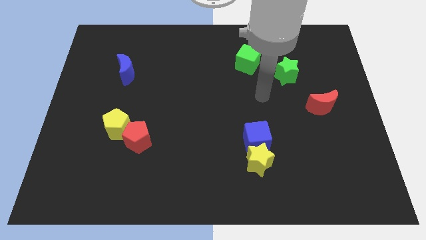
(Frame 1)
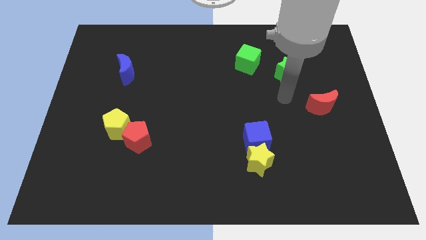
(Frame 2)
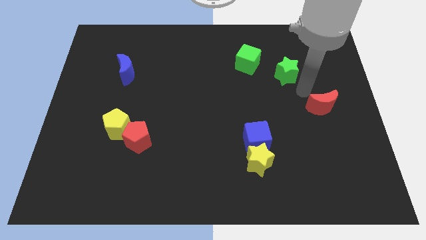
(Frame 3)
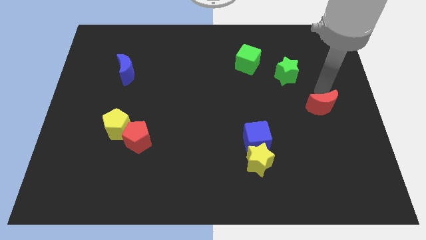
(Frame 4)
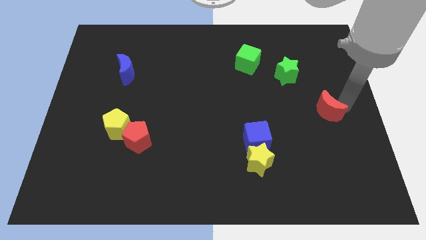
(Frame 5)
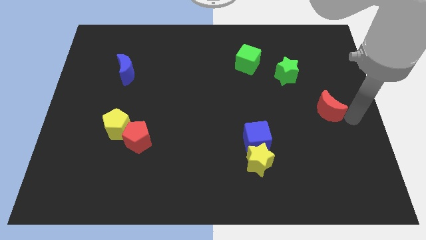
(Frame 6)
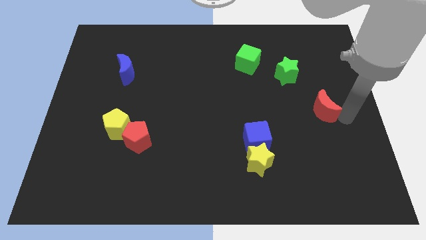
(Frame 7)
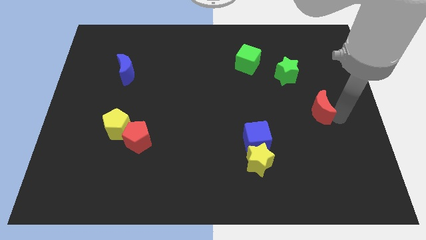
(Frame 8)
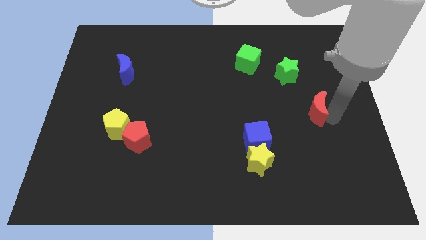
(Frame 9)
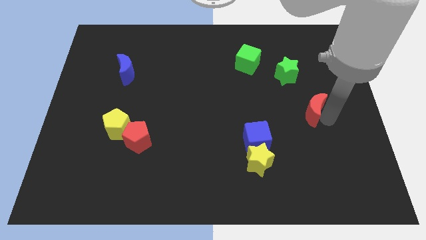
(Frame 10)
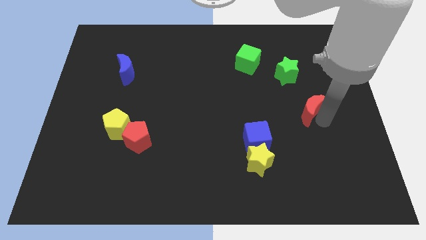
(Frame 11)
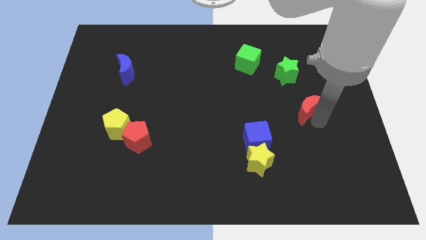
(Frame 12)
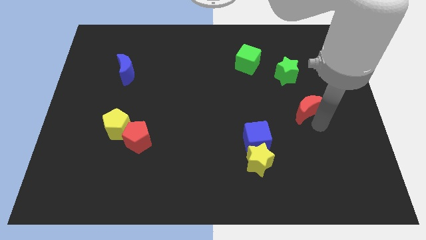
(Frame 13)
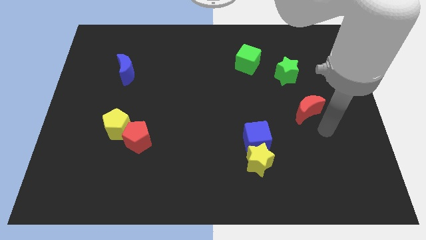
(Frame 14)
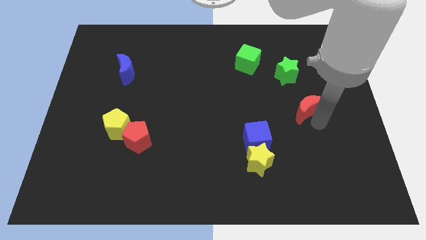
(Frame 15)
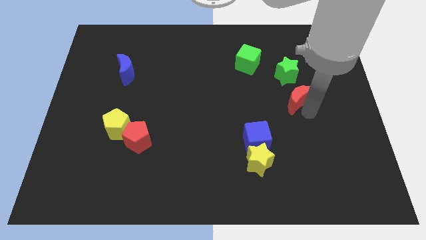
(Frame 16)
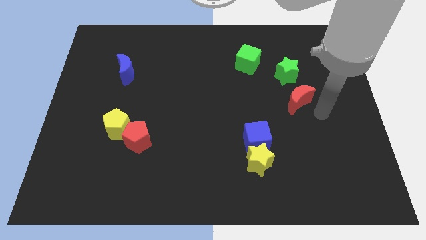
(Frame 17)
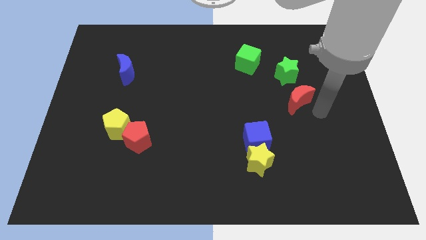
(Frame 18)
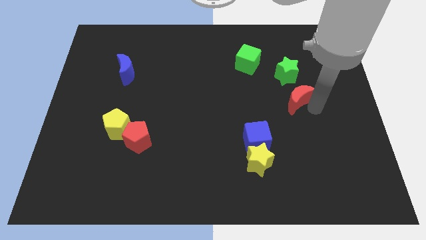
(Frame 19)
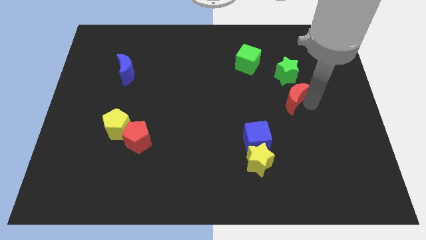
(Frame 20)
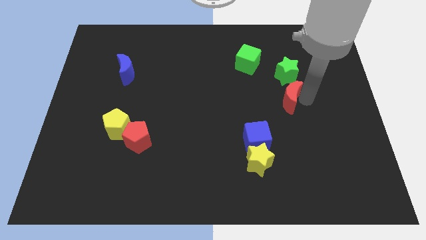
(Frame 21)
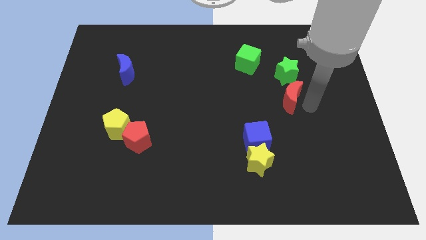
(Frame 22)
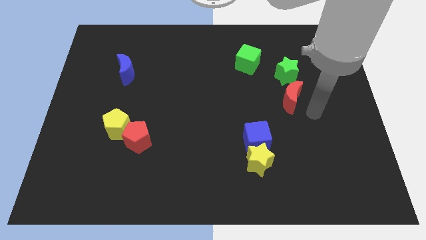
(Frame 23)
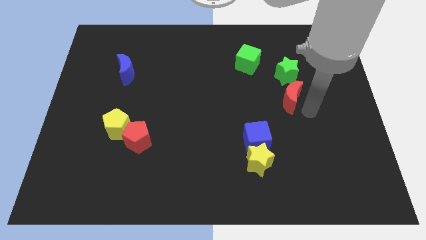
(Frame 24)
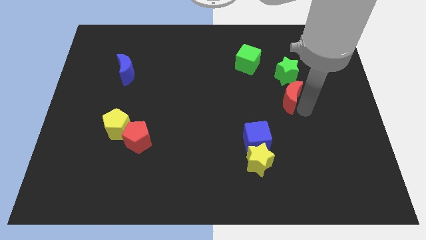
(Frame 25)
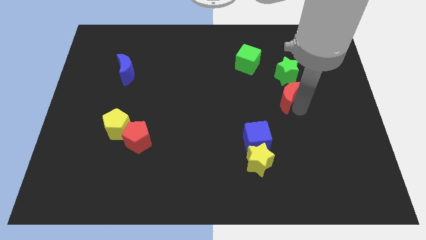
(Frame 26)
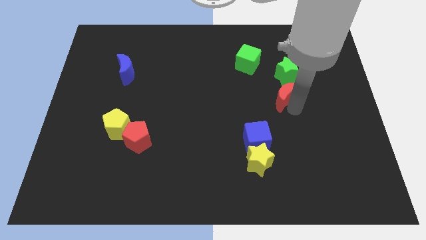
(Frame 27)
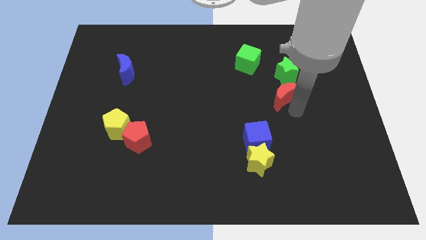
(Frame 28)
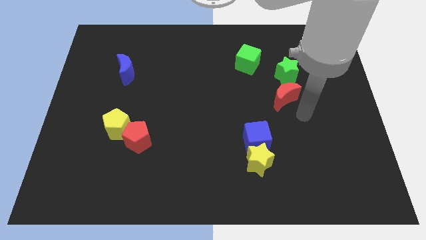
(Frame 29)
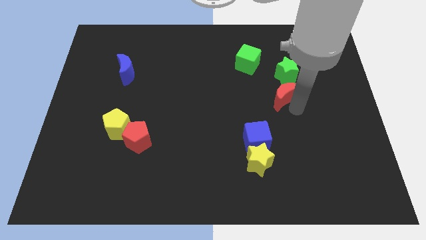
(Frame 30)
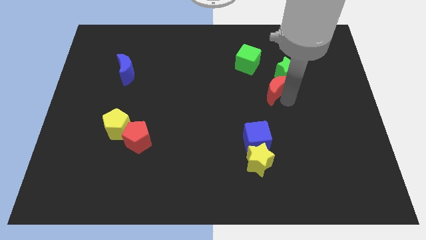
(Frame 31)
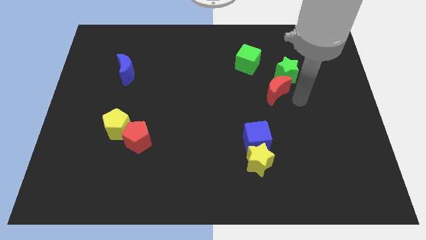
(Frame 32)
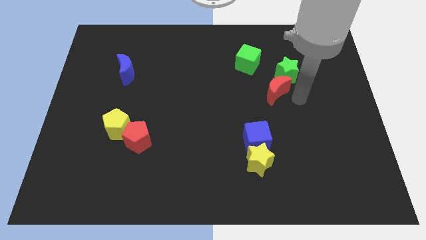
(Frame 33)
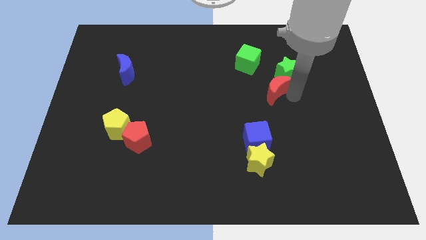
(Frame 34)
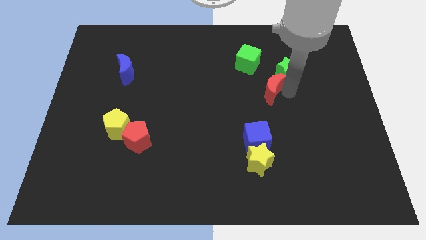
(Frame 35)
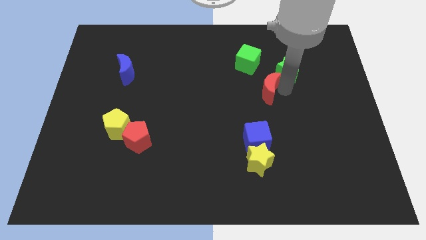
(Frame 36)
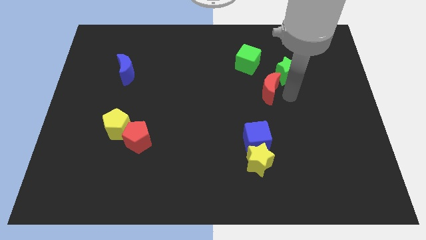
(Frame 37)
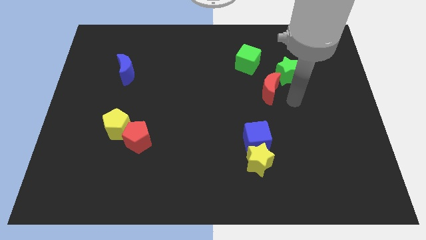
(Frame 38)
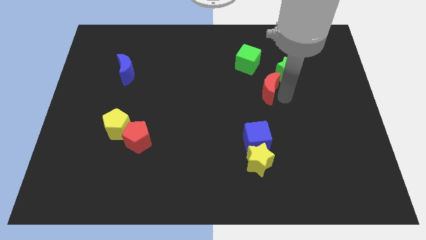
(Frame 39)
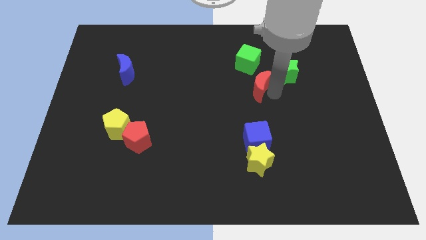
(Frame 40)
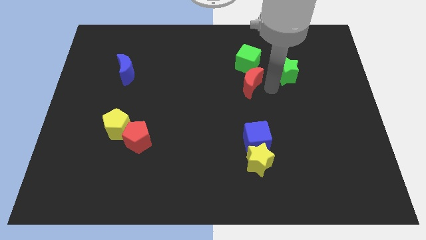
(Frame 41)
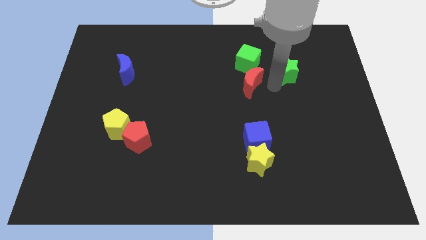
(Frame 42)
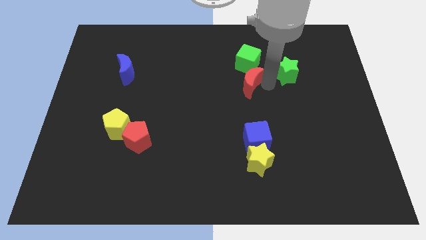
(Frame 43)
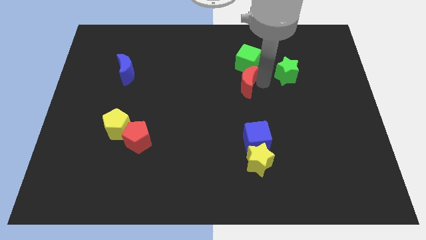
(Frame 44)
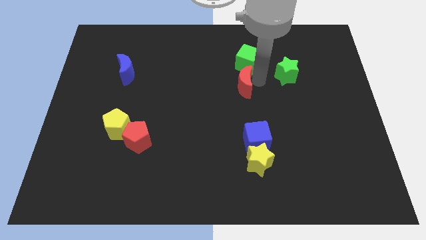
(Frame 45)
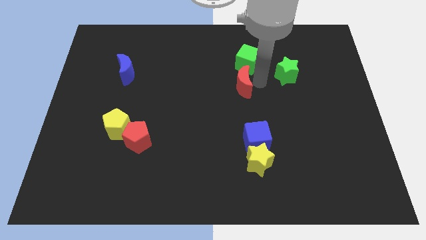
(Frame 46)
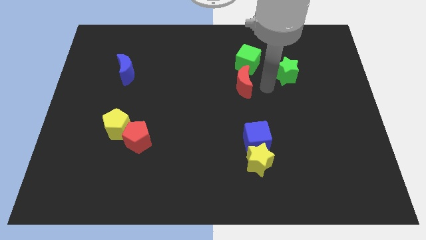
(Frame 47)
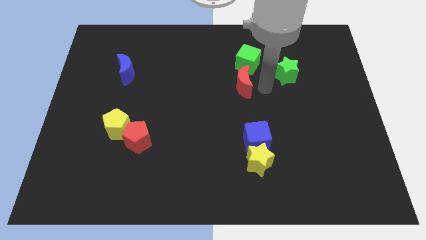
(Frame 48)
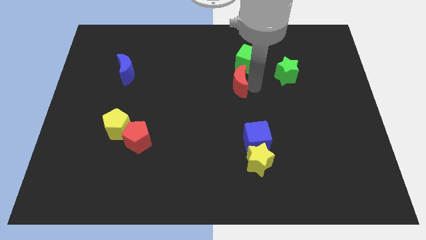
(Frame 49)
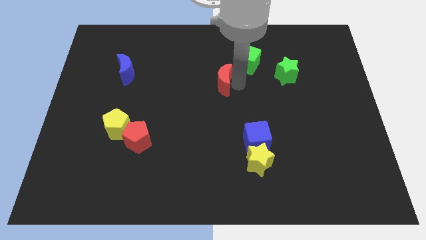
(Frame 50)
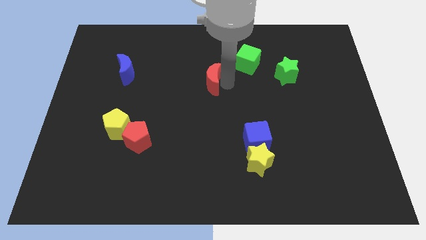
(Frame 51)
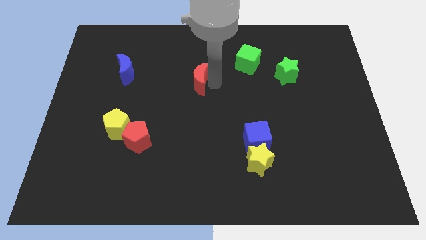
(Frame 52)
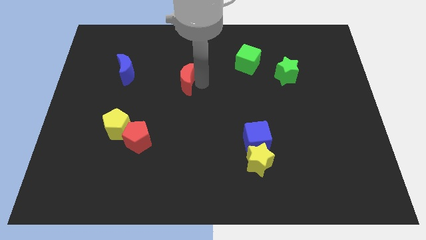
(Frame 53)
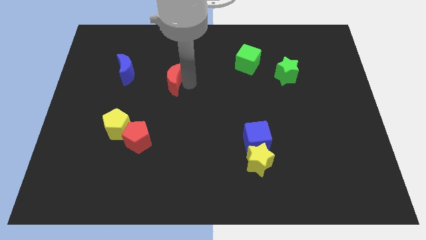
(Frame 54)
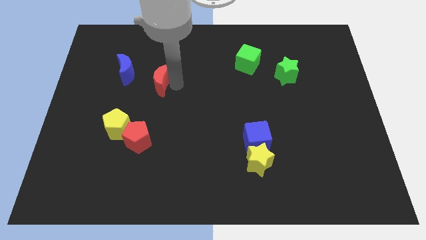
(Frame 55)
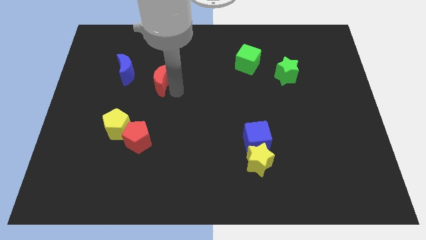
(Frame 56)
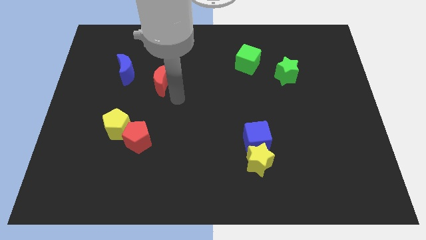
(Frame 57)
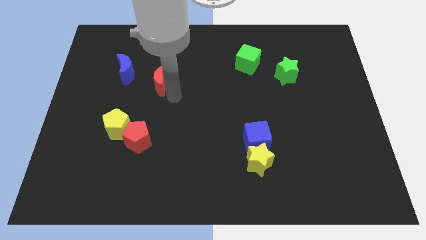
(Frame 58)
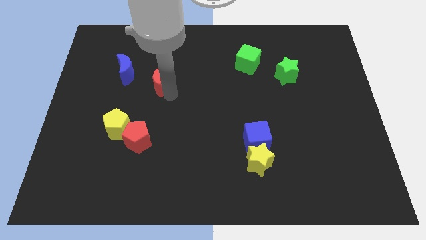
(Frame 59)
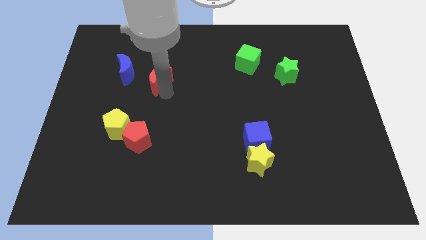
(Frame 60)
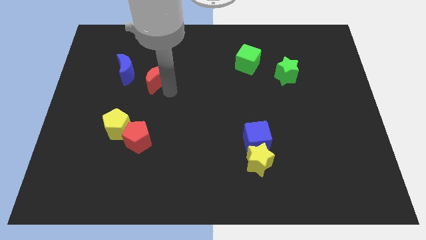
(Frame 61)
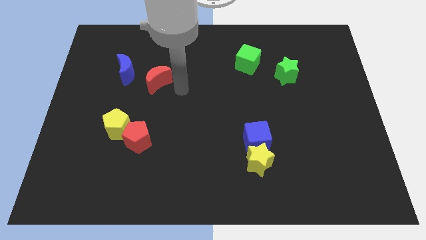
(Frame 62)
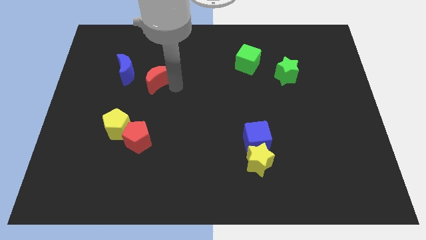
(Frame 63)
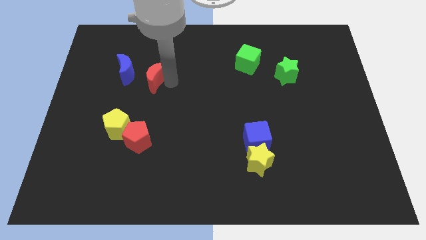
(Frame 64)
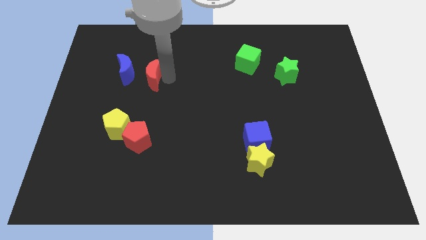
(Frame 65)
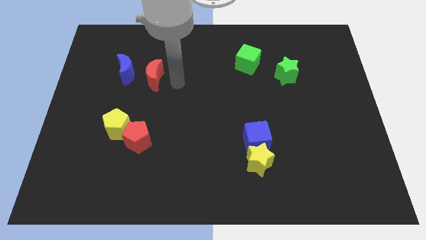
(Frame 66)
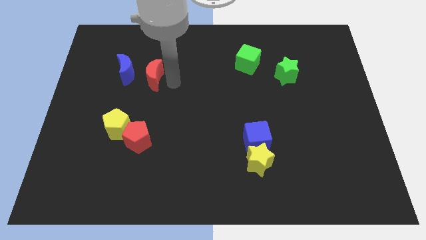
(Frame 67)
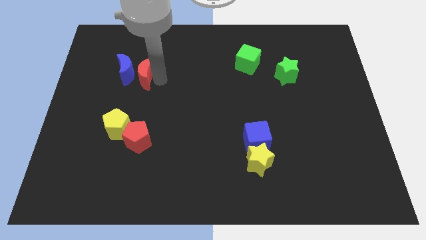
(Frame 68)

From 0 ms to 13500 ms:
move the red moon next to the blue moon
